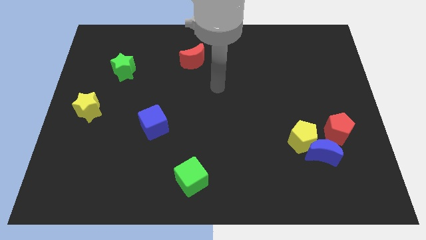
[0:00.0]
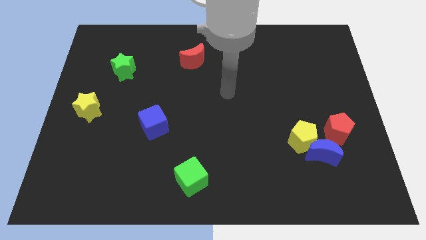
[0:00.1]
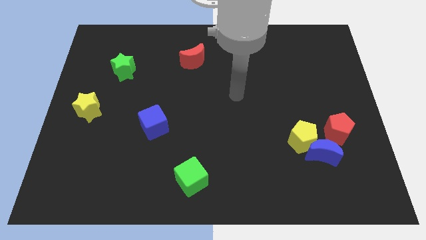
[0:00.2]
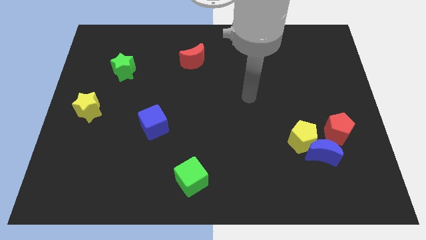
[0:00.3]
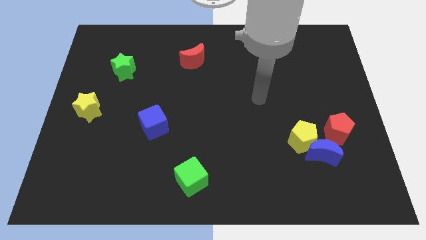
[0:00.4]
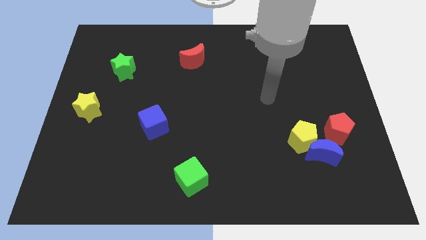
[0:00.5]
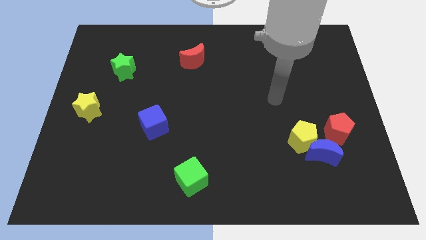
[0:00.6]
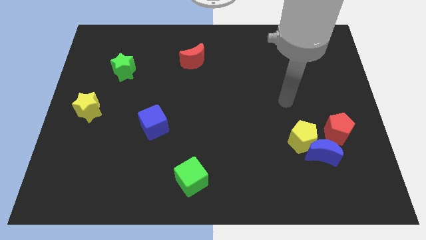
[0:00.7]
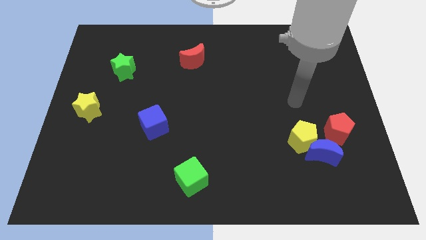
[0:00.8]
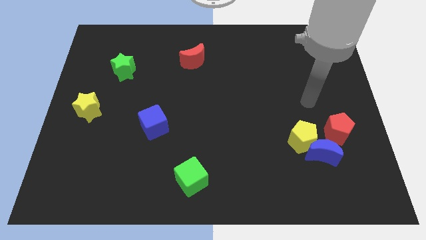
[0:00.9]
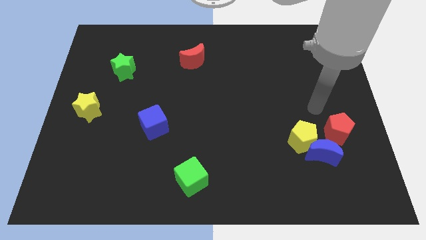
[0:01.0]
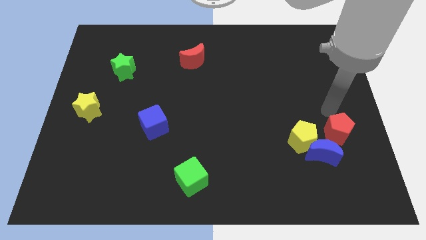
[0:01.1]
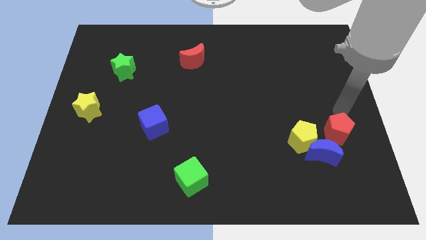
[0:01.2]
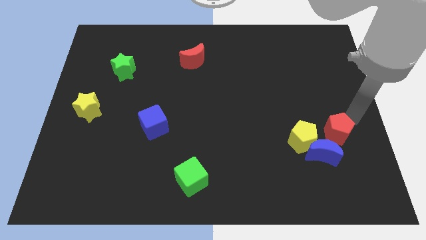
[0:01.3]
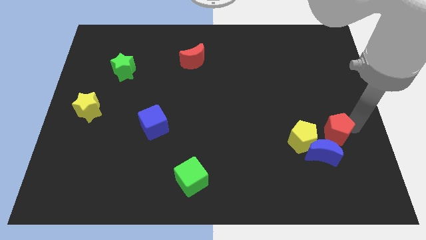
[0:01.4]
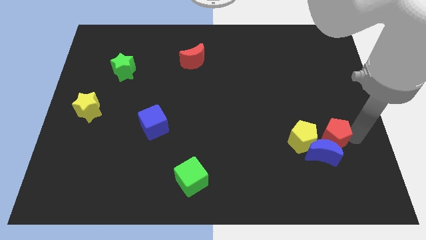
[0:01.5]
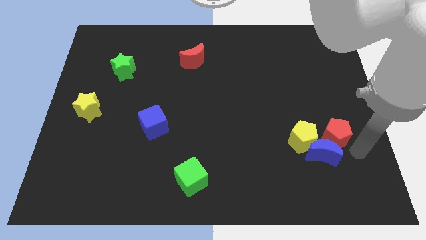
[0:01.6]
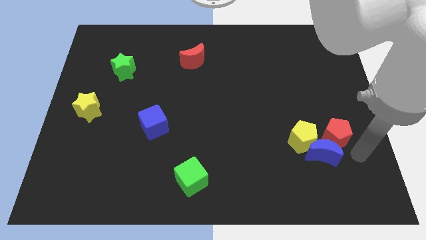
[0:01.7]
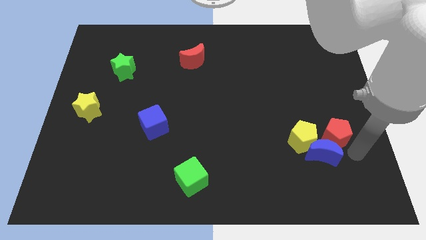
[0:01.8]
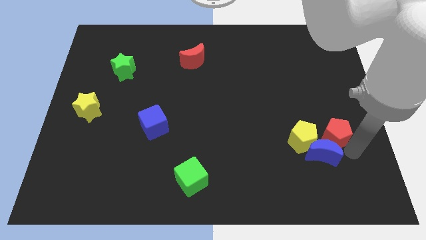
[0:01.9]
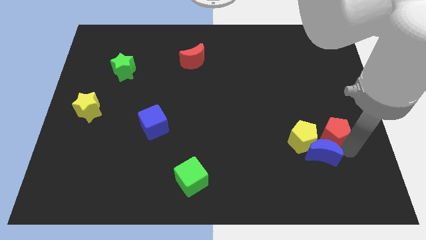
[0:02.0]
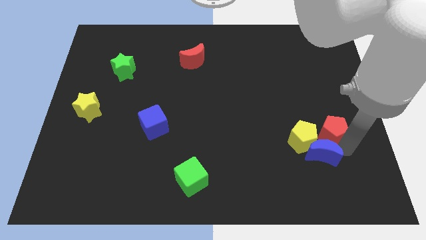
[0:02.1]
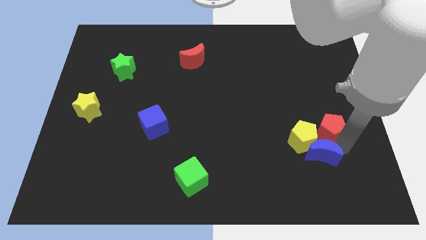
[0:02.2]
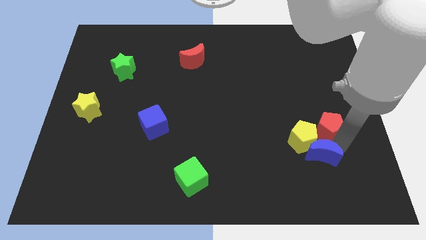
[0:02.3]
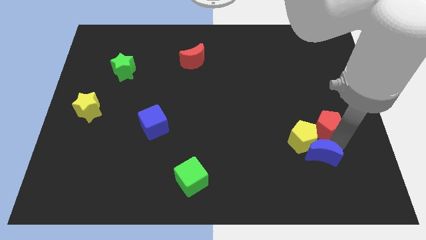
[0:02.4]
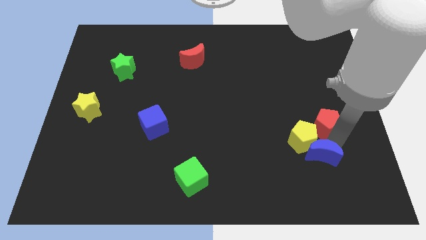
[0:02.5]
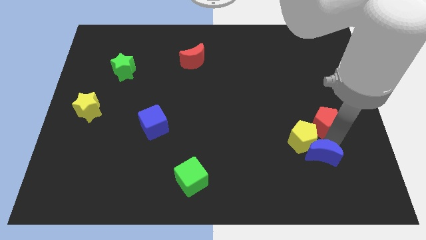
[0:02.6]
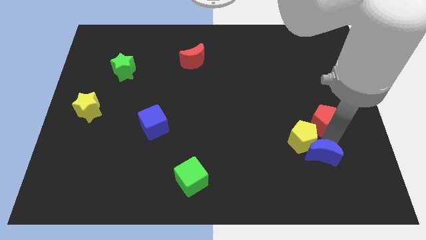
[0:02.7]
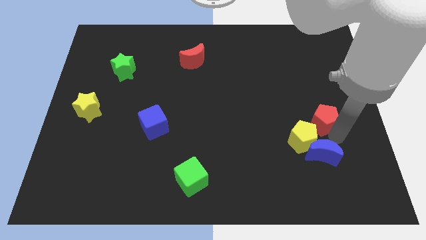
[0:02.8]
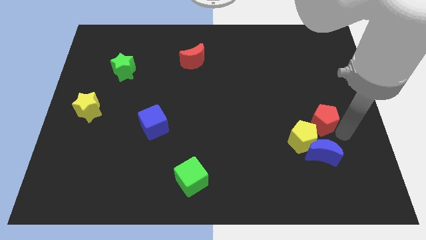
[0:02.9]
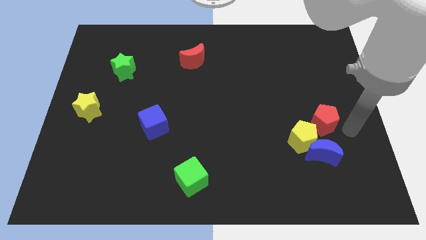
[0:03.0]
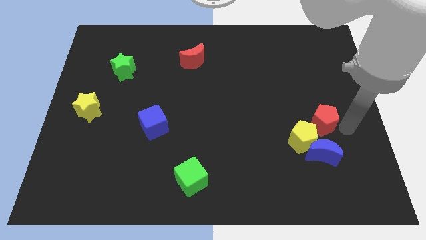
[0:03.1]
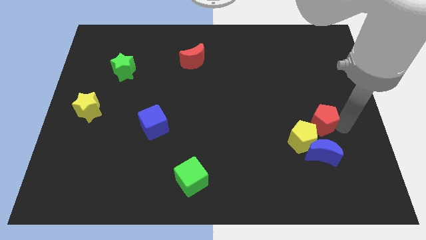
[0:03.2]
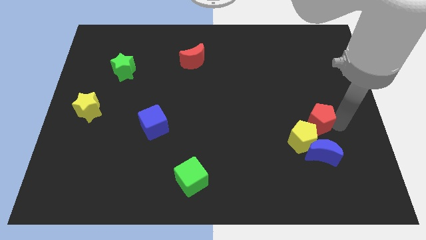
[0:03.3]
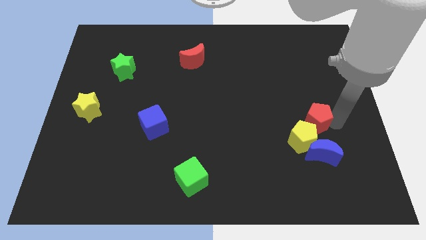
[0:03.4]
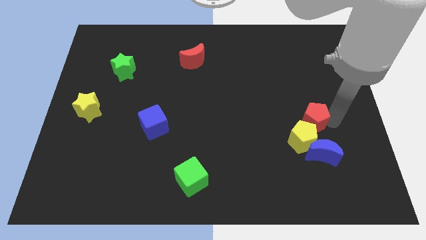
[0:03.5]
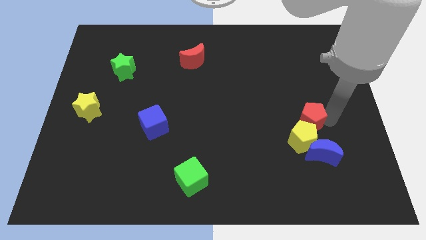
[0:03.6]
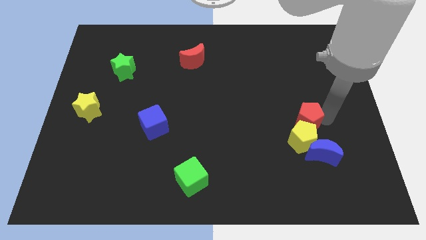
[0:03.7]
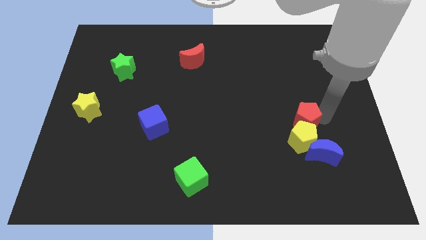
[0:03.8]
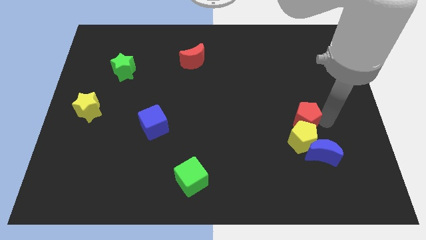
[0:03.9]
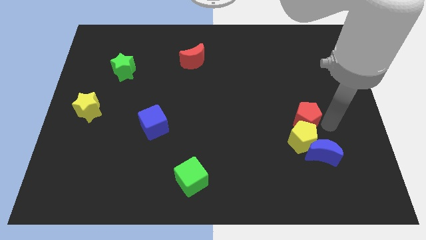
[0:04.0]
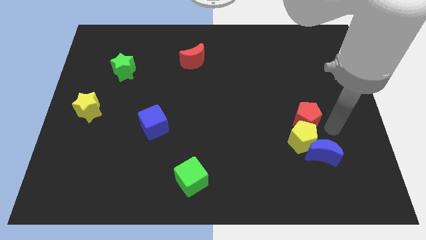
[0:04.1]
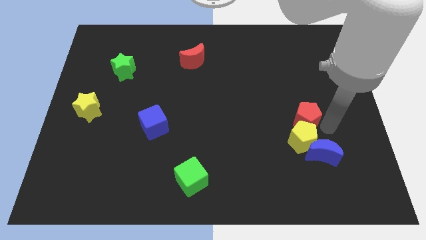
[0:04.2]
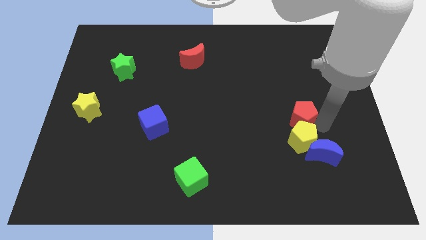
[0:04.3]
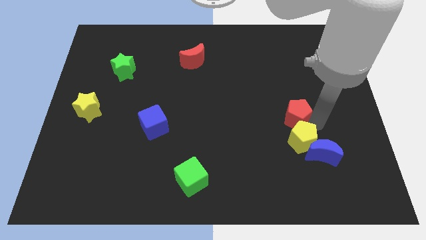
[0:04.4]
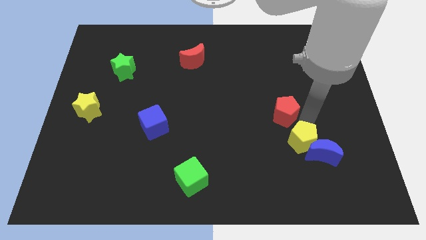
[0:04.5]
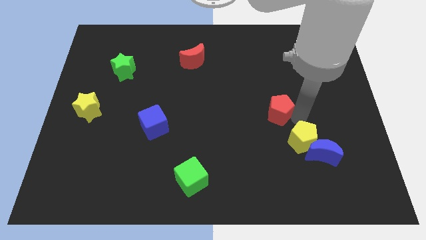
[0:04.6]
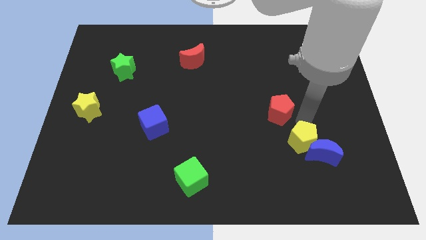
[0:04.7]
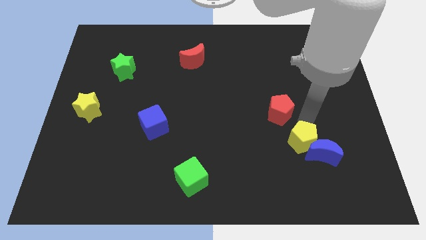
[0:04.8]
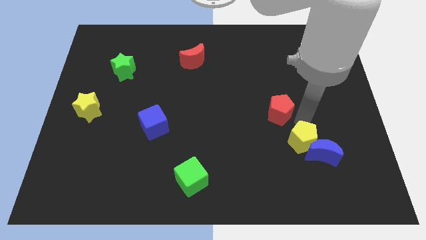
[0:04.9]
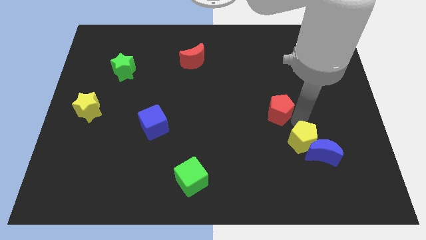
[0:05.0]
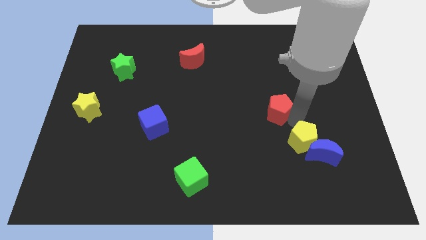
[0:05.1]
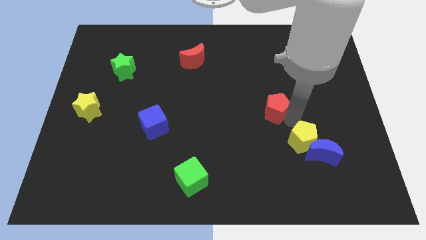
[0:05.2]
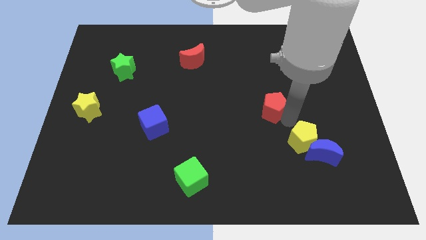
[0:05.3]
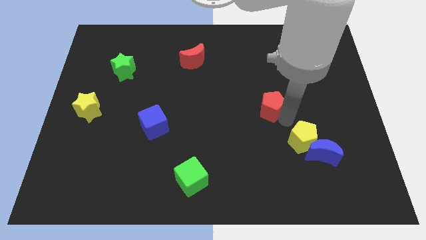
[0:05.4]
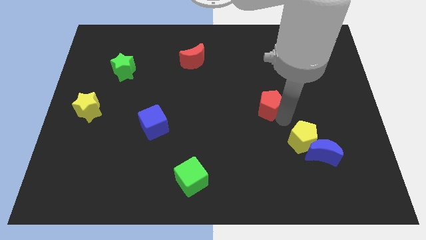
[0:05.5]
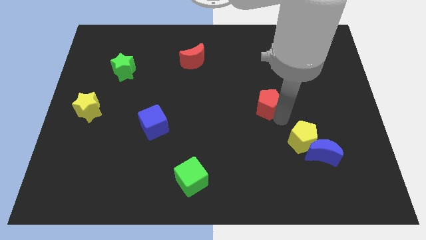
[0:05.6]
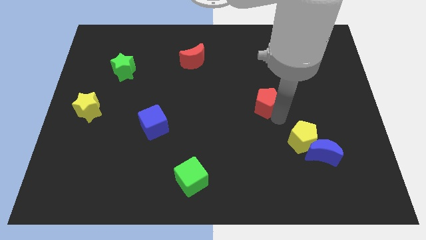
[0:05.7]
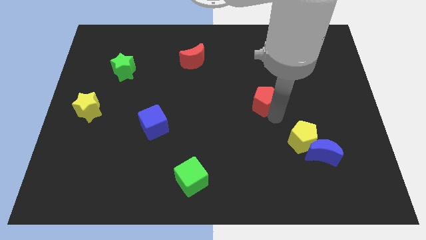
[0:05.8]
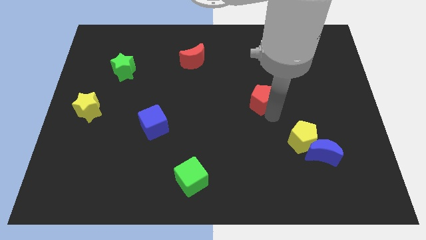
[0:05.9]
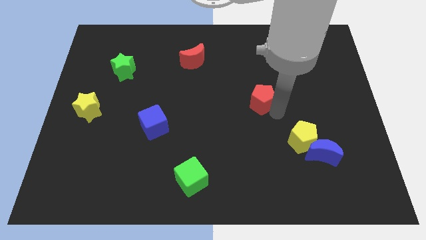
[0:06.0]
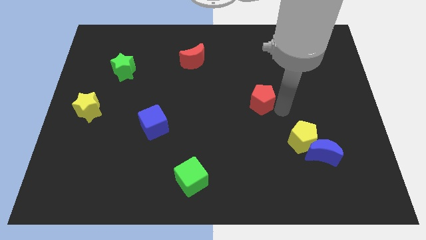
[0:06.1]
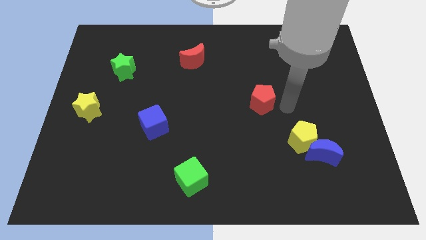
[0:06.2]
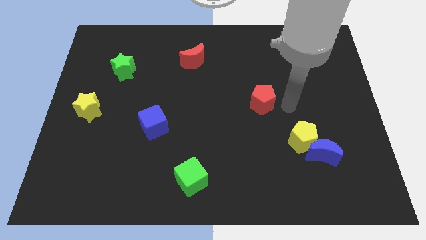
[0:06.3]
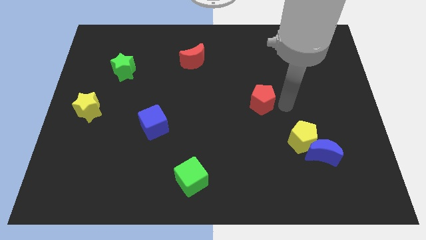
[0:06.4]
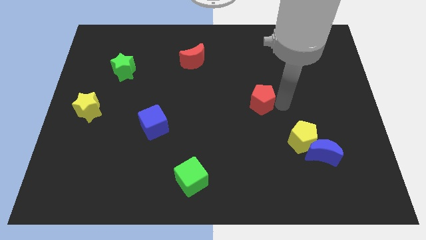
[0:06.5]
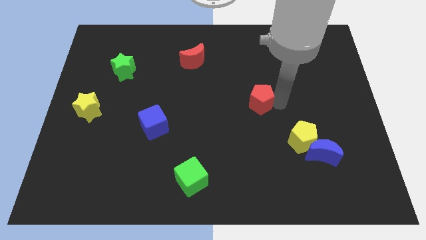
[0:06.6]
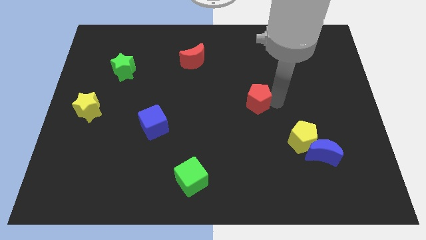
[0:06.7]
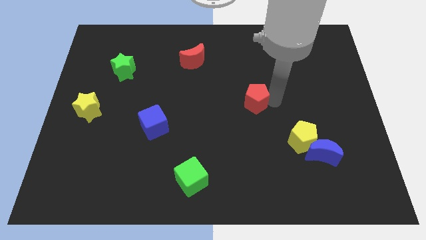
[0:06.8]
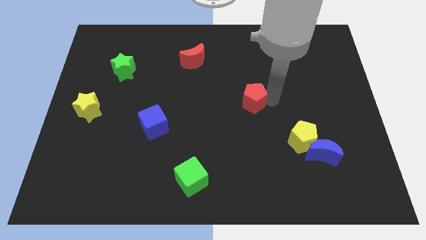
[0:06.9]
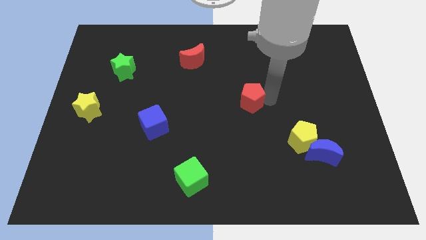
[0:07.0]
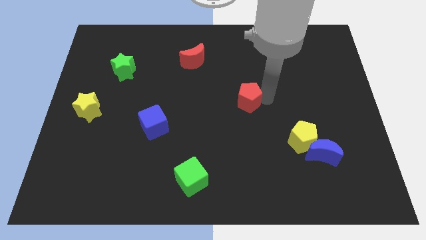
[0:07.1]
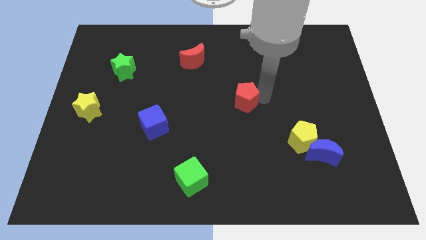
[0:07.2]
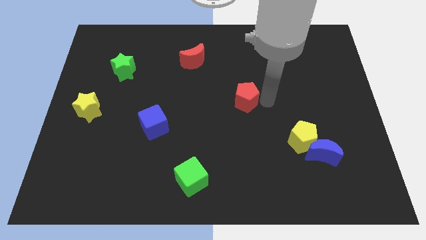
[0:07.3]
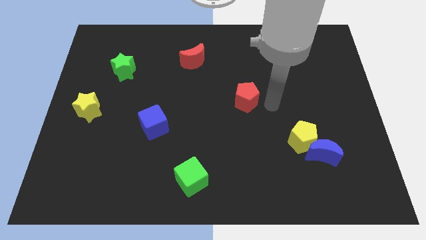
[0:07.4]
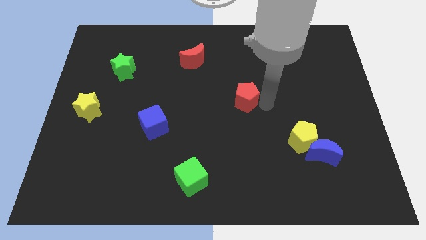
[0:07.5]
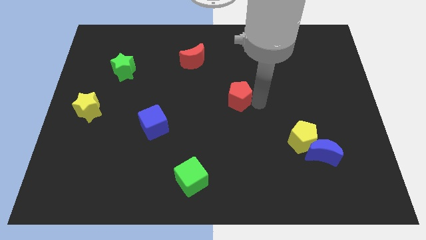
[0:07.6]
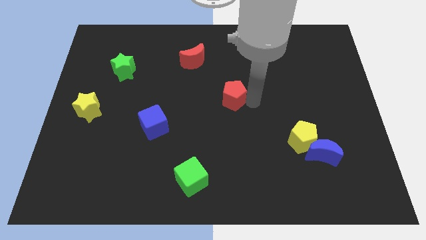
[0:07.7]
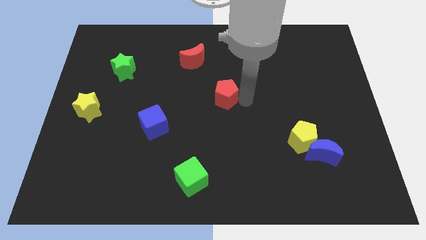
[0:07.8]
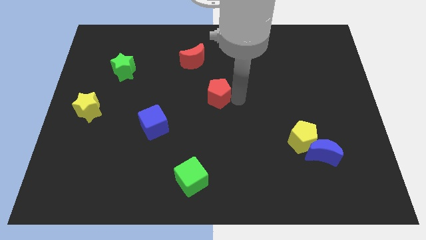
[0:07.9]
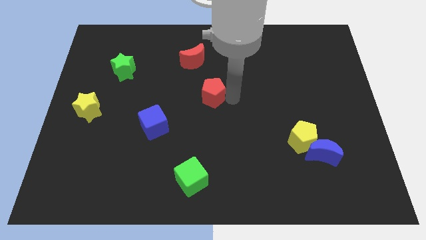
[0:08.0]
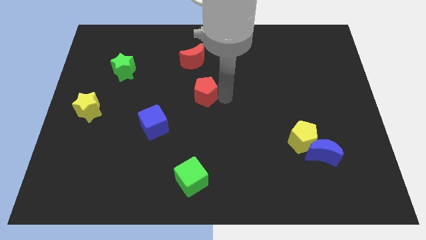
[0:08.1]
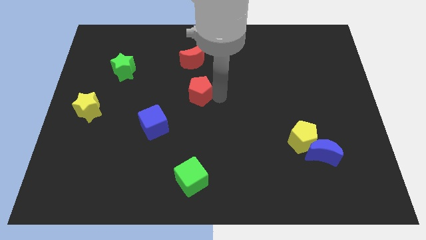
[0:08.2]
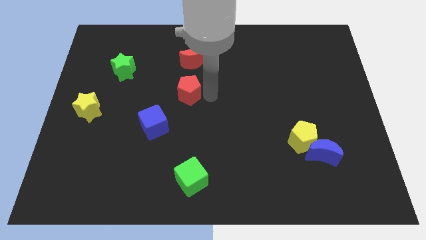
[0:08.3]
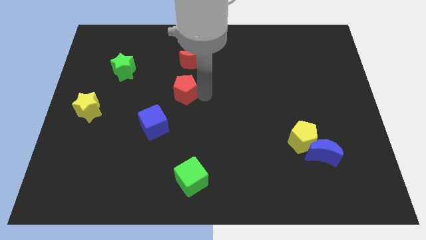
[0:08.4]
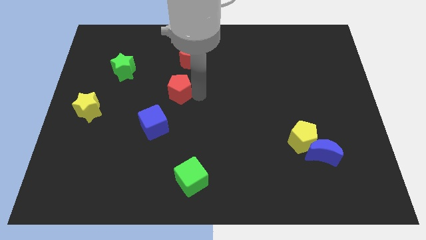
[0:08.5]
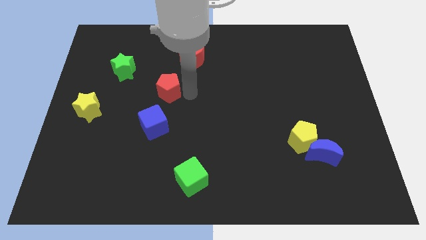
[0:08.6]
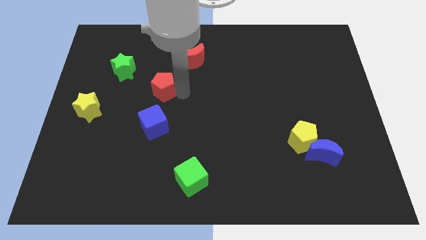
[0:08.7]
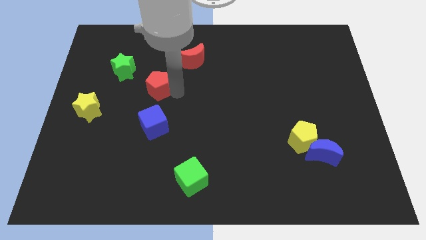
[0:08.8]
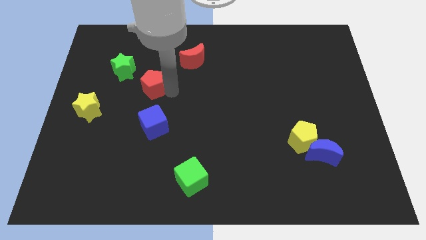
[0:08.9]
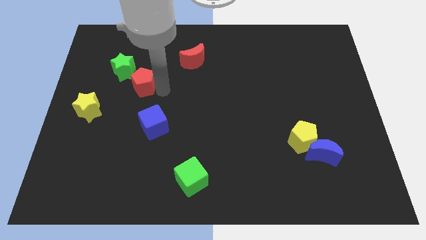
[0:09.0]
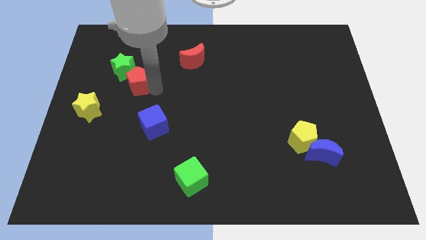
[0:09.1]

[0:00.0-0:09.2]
slide the red pentagon next to the green star
